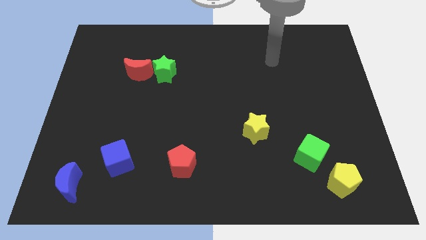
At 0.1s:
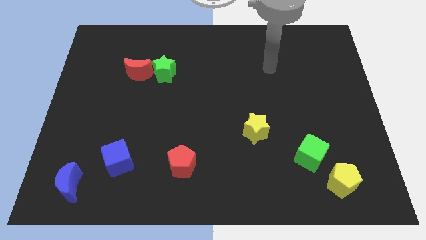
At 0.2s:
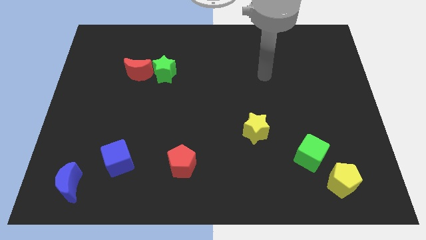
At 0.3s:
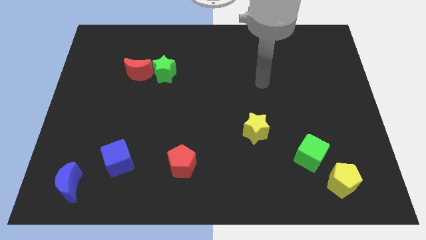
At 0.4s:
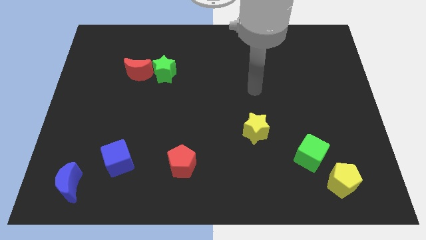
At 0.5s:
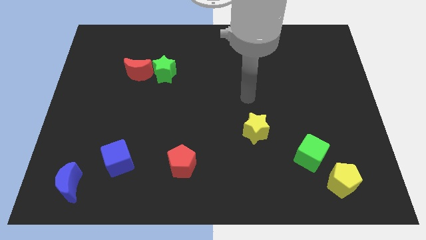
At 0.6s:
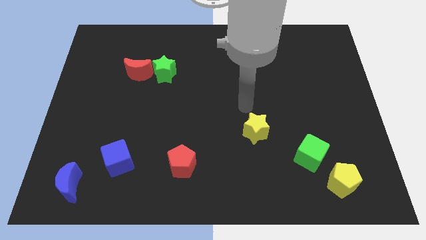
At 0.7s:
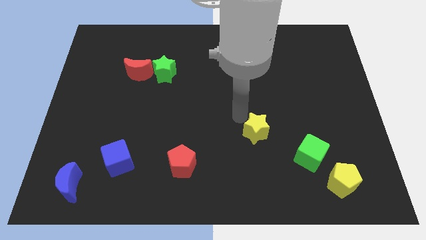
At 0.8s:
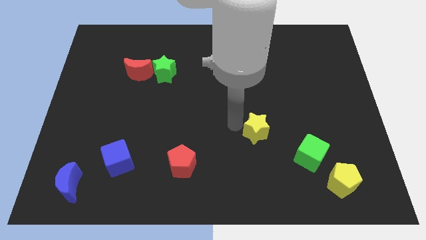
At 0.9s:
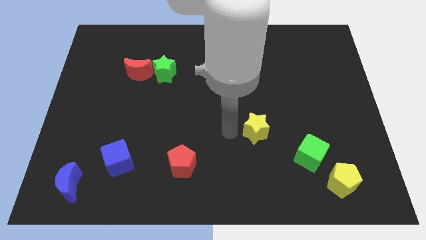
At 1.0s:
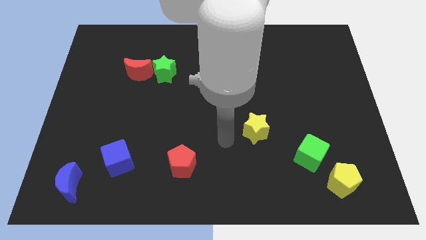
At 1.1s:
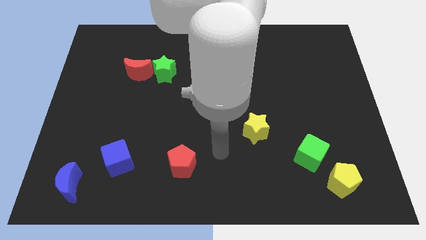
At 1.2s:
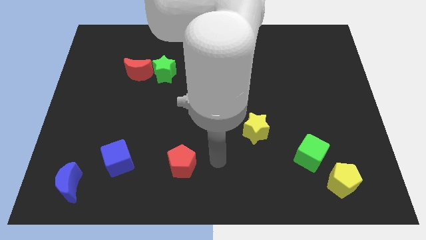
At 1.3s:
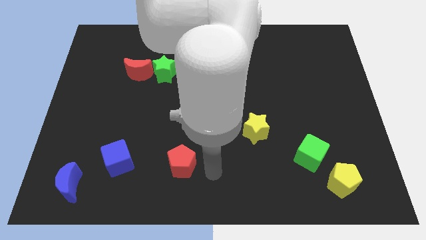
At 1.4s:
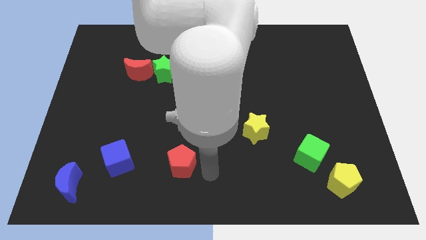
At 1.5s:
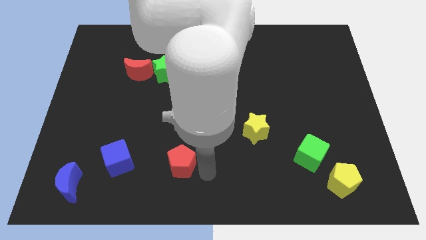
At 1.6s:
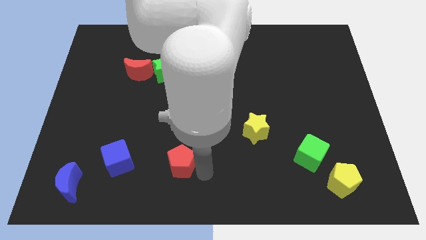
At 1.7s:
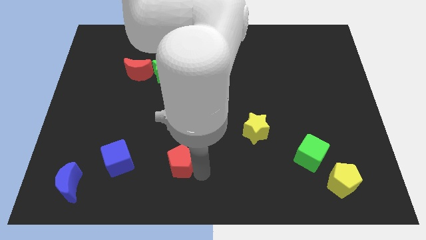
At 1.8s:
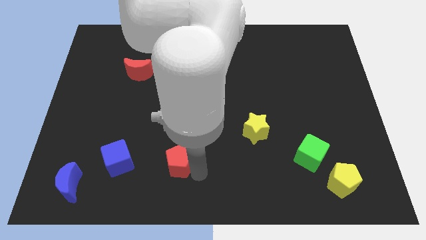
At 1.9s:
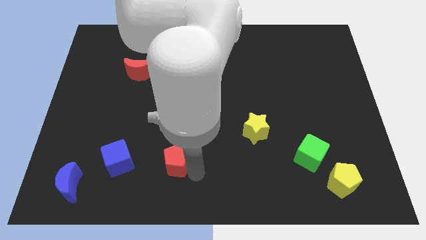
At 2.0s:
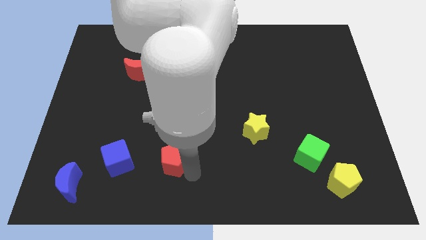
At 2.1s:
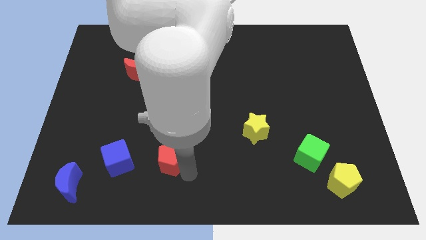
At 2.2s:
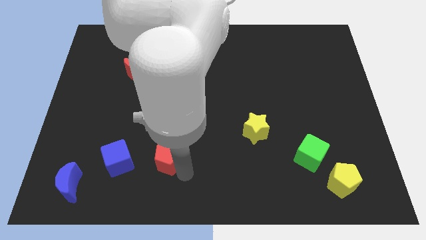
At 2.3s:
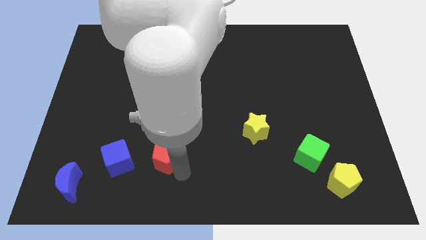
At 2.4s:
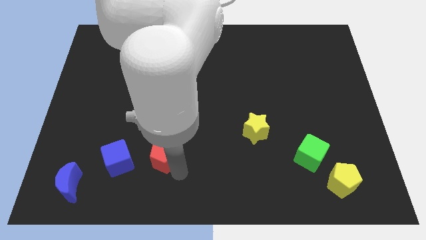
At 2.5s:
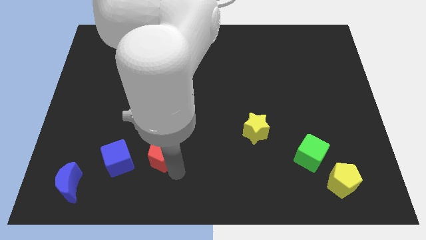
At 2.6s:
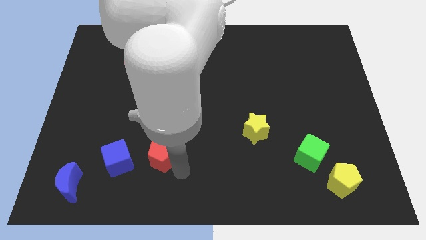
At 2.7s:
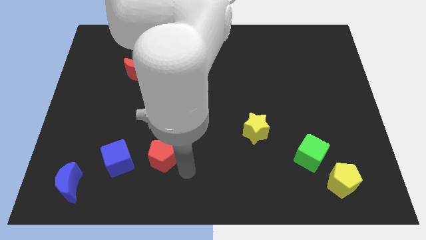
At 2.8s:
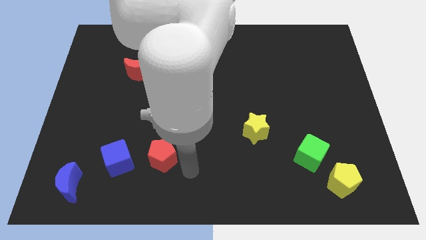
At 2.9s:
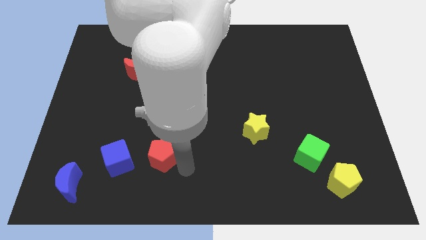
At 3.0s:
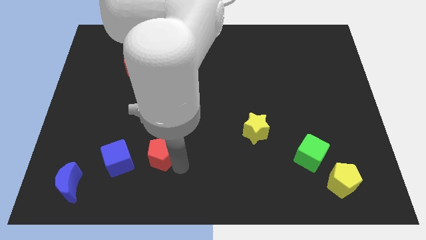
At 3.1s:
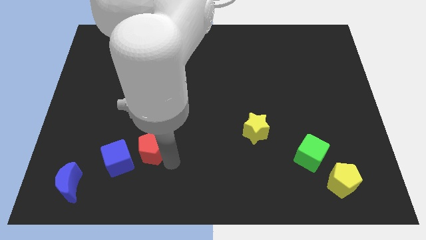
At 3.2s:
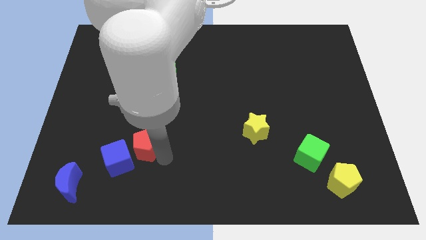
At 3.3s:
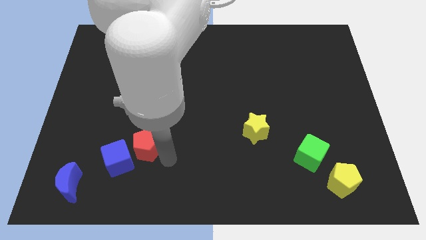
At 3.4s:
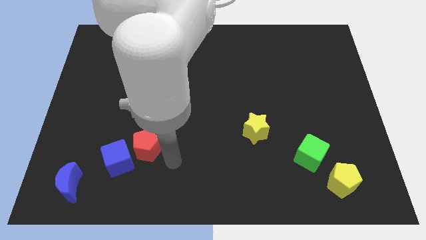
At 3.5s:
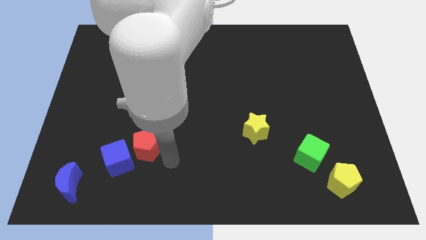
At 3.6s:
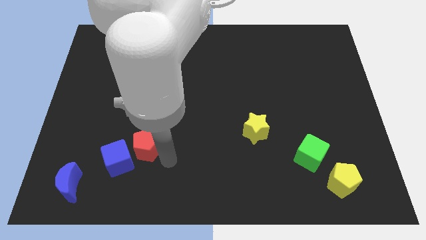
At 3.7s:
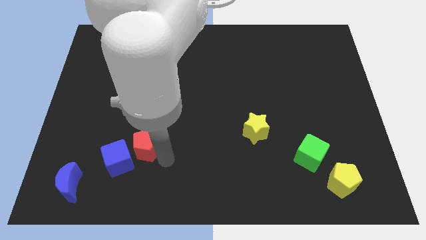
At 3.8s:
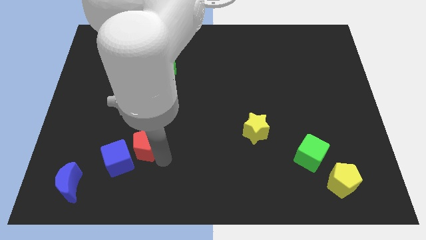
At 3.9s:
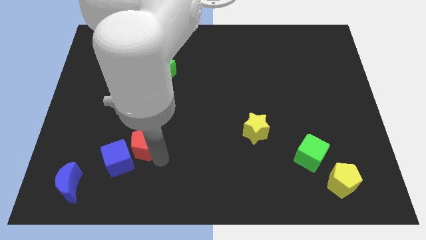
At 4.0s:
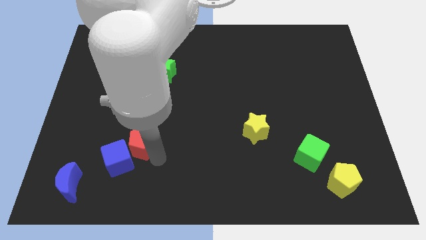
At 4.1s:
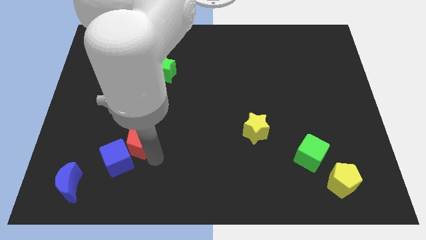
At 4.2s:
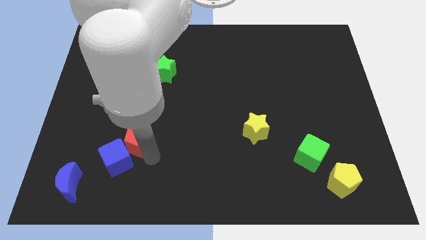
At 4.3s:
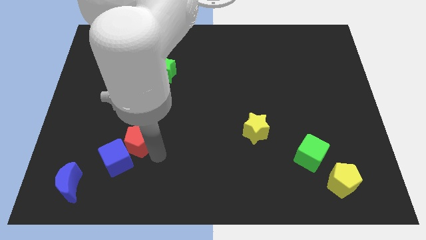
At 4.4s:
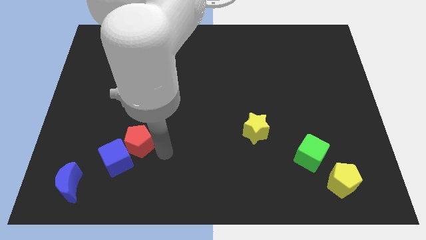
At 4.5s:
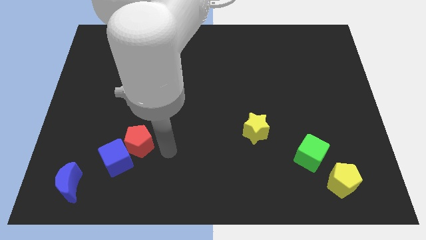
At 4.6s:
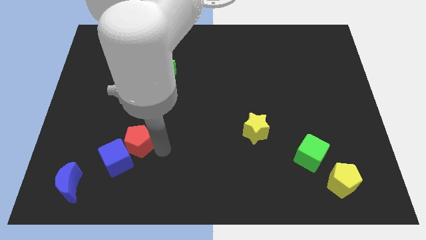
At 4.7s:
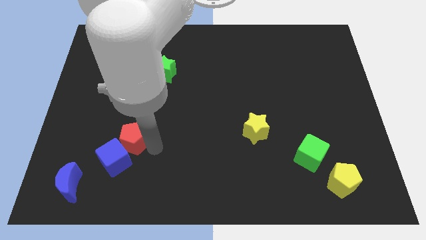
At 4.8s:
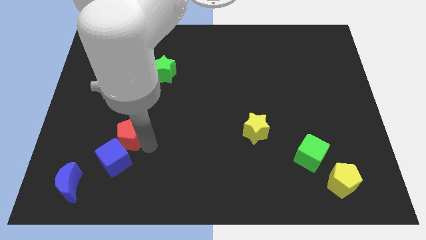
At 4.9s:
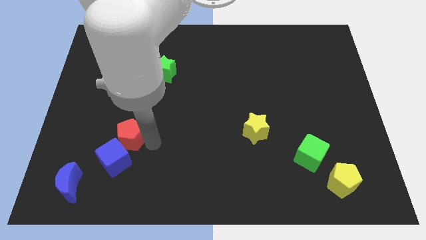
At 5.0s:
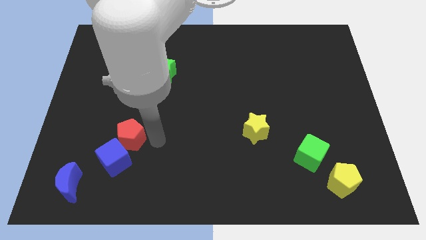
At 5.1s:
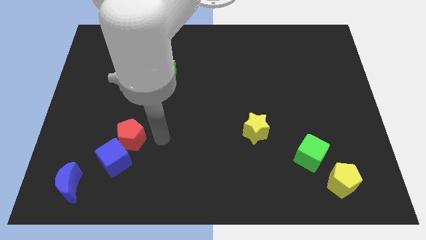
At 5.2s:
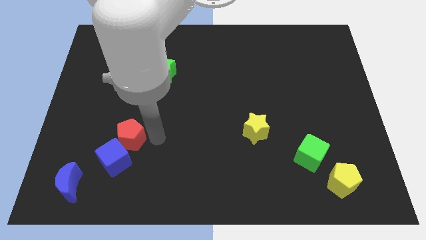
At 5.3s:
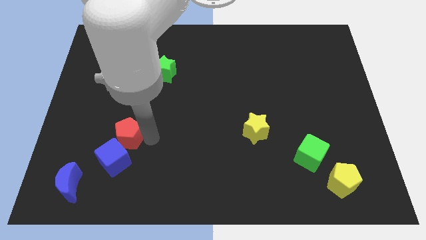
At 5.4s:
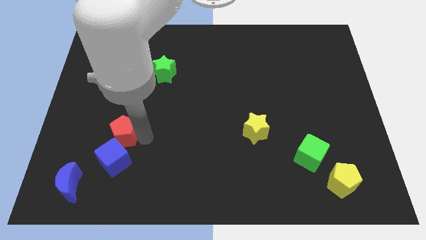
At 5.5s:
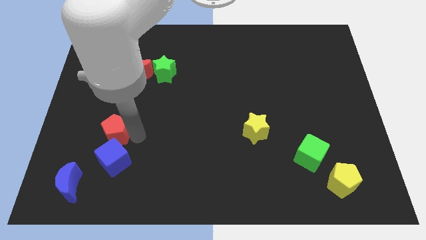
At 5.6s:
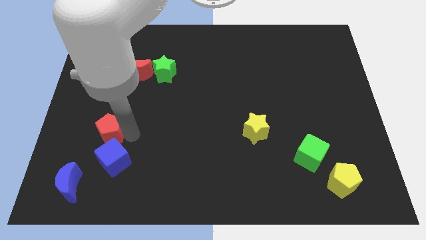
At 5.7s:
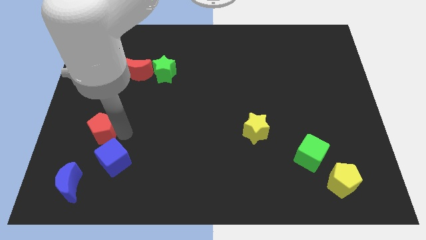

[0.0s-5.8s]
put the red pentagon to the top side of the blue moon

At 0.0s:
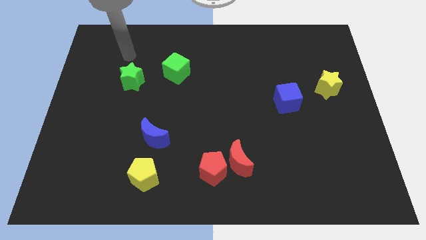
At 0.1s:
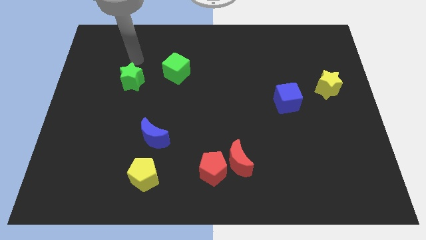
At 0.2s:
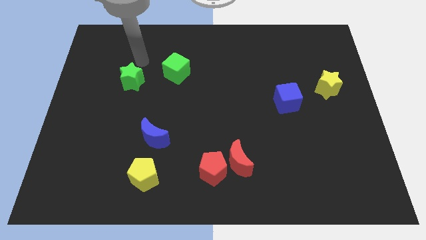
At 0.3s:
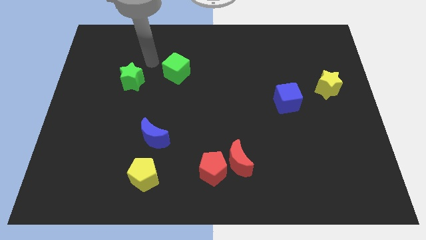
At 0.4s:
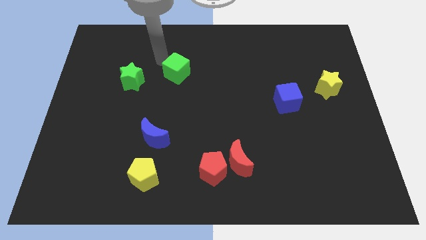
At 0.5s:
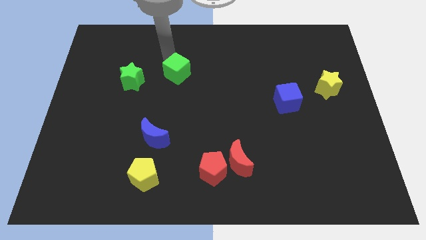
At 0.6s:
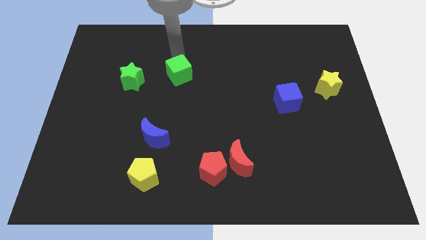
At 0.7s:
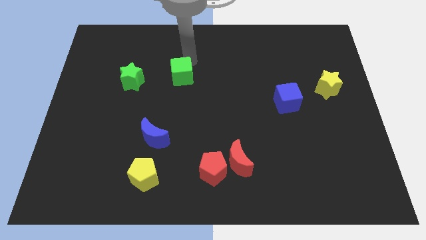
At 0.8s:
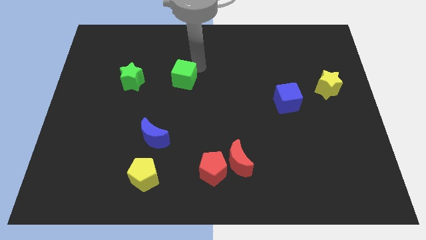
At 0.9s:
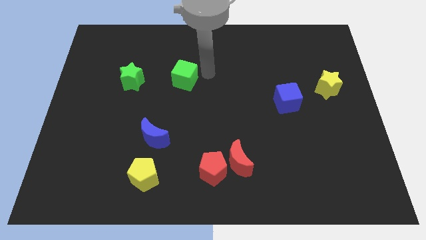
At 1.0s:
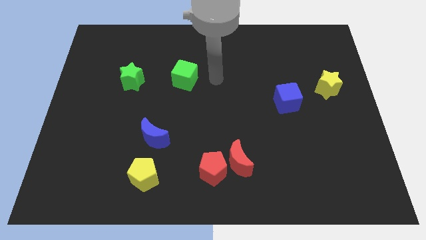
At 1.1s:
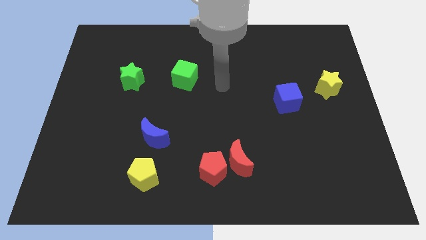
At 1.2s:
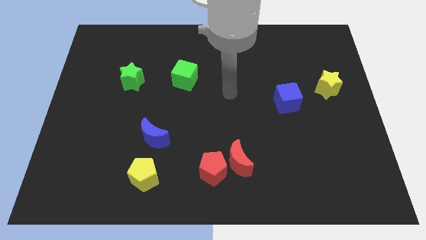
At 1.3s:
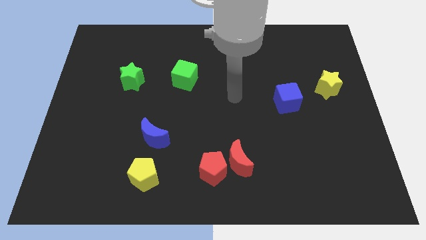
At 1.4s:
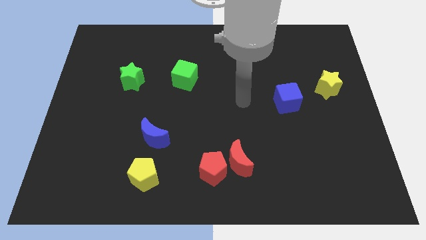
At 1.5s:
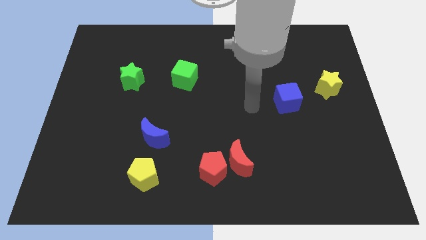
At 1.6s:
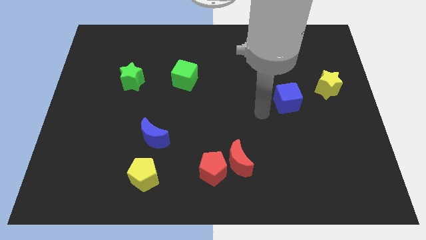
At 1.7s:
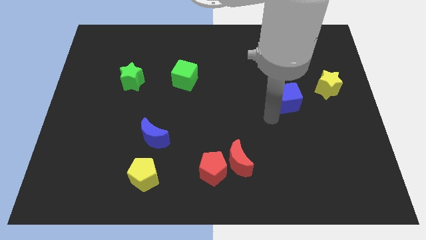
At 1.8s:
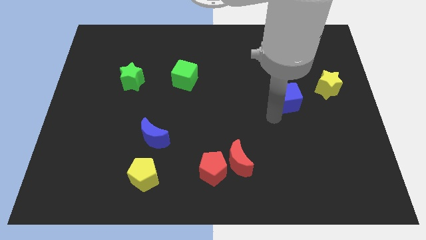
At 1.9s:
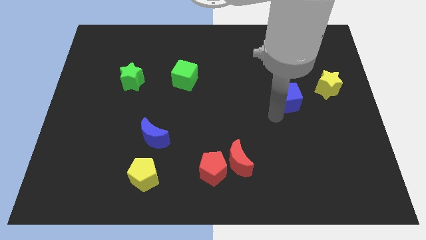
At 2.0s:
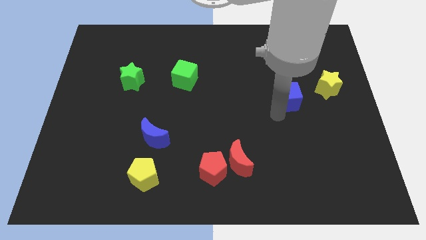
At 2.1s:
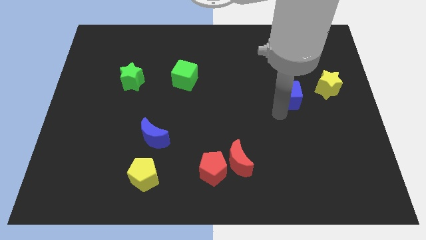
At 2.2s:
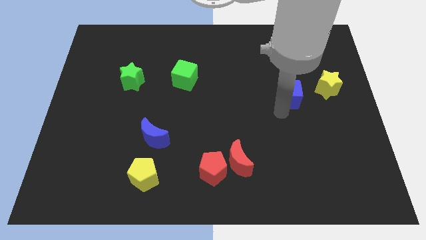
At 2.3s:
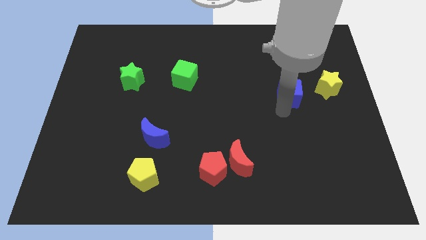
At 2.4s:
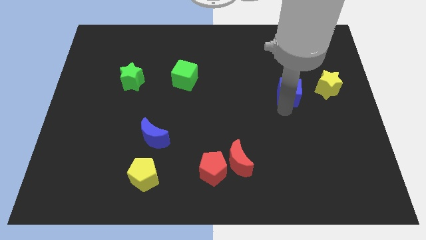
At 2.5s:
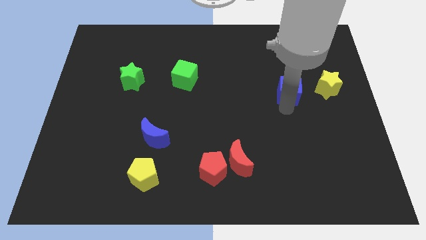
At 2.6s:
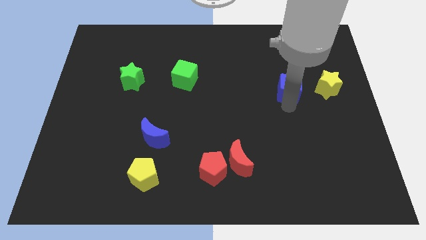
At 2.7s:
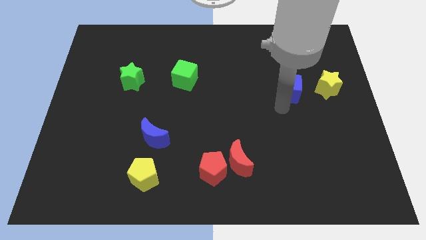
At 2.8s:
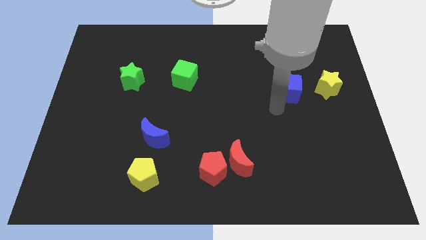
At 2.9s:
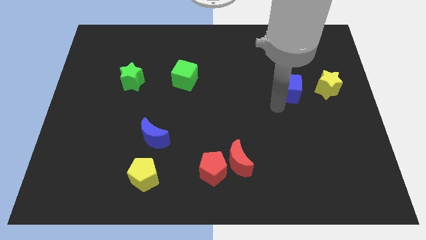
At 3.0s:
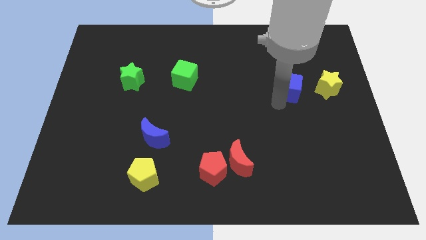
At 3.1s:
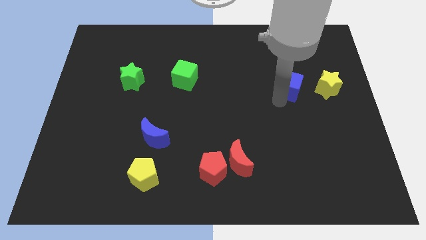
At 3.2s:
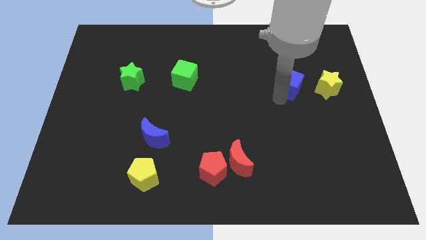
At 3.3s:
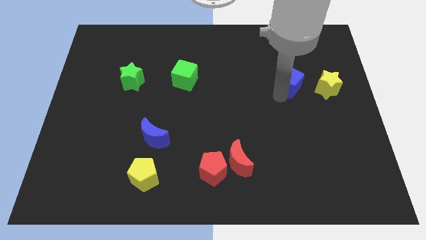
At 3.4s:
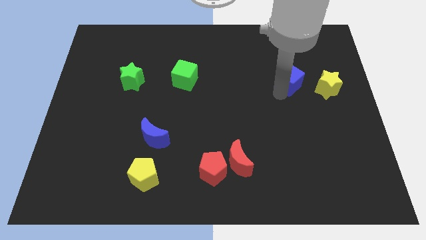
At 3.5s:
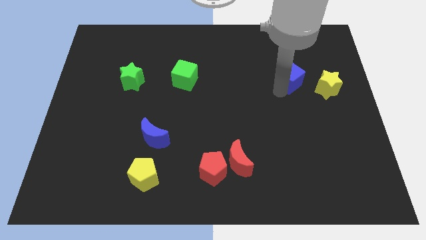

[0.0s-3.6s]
move the blue cube diagonally up and to the left of the yellow star
